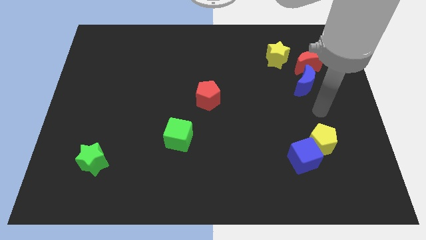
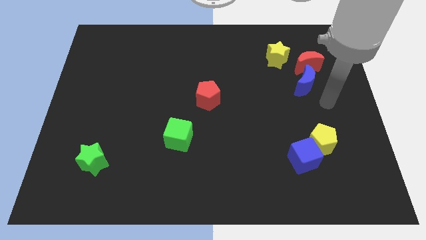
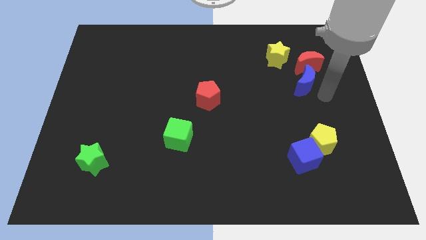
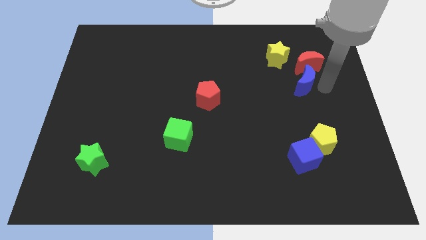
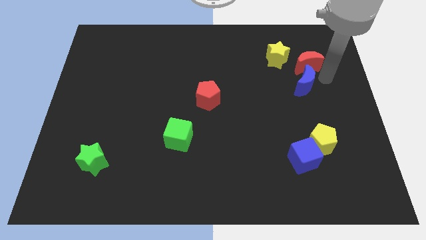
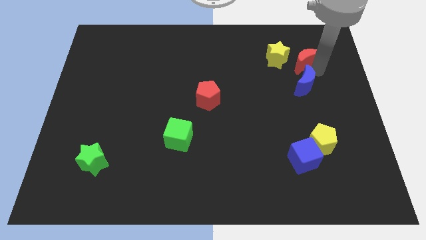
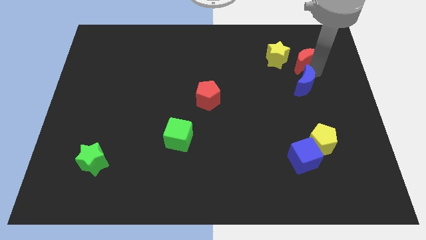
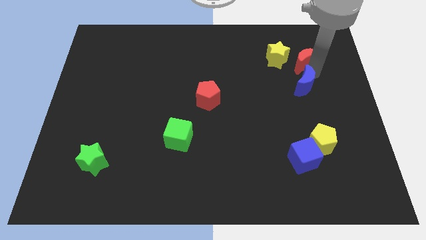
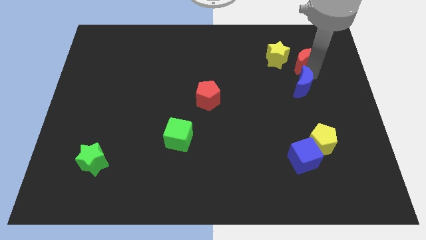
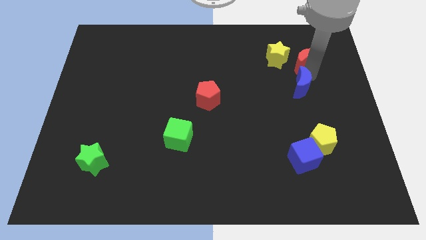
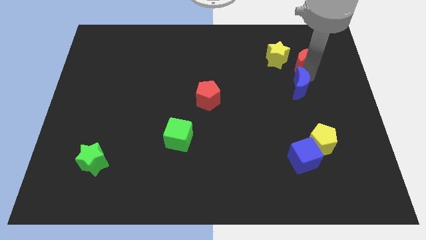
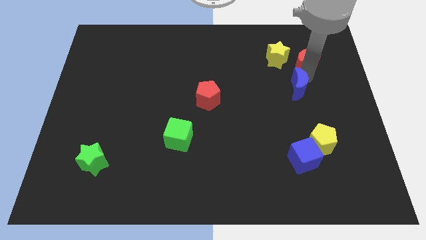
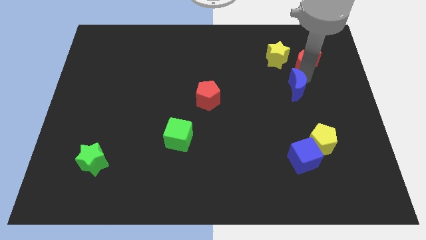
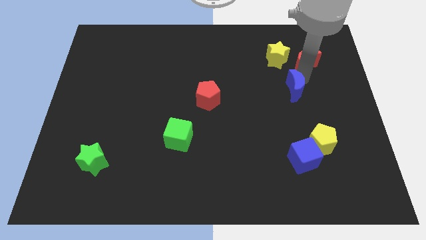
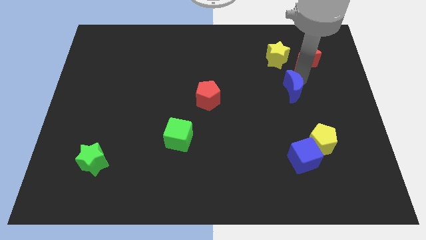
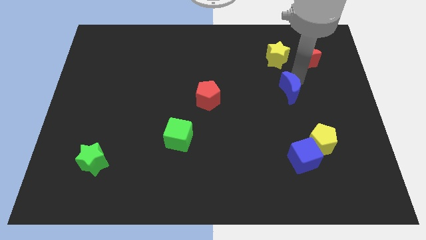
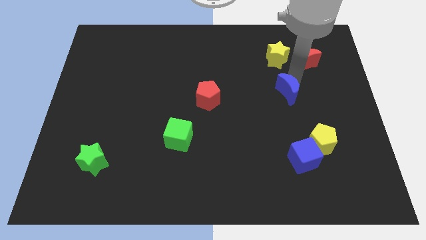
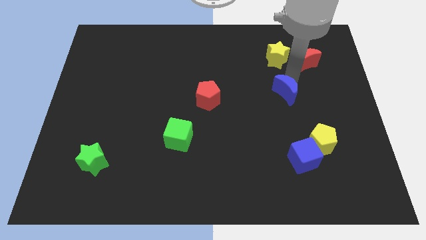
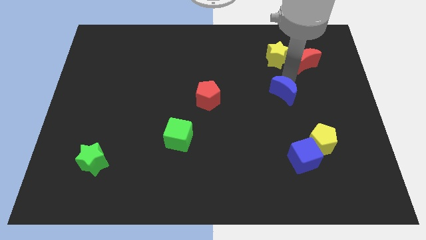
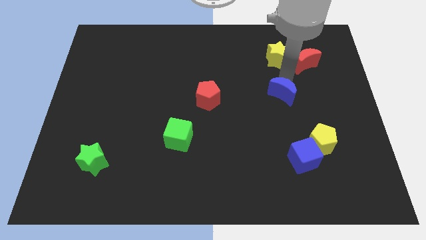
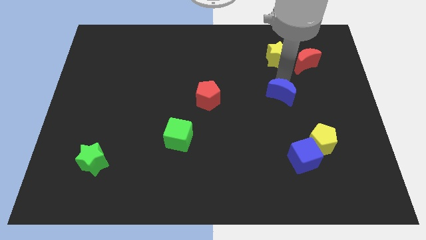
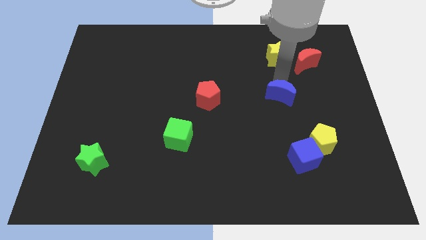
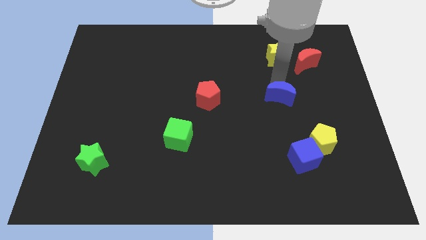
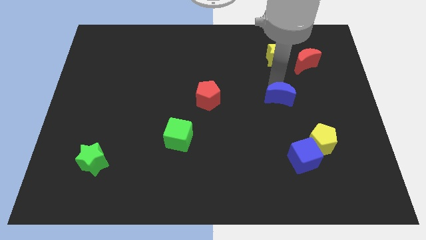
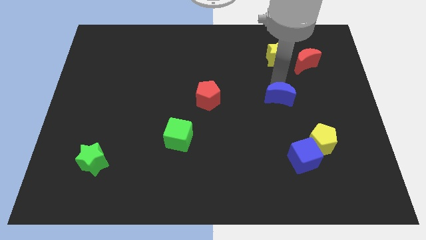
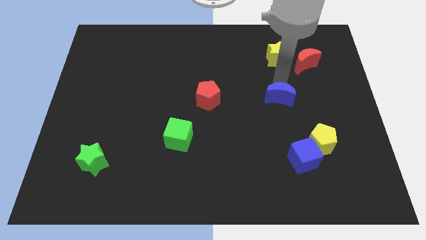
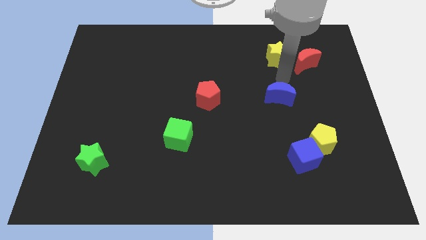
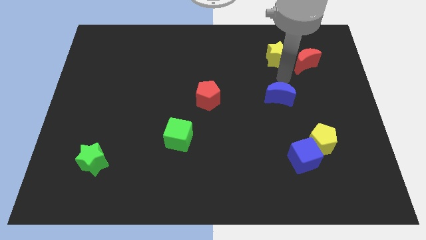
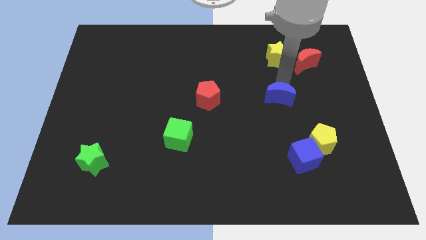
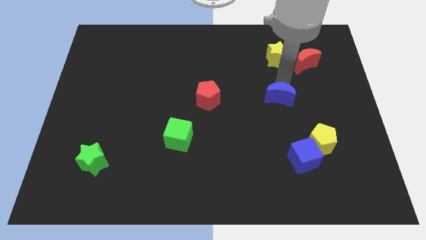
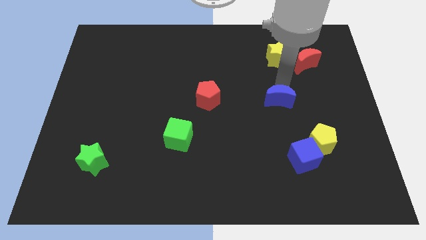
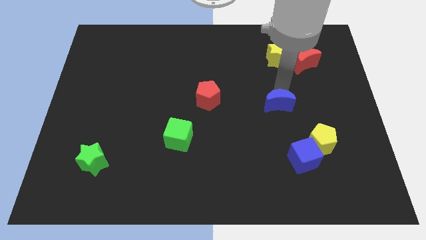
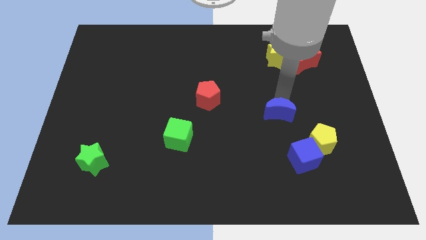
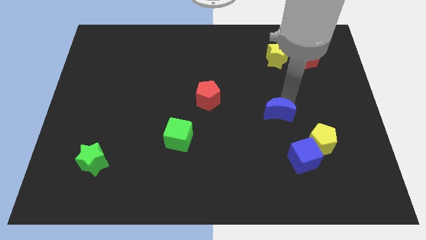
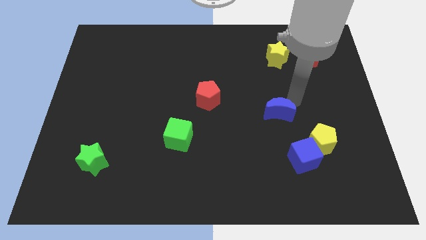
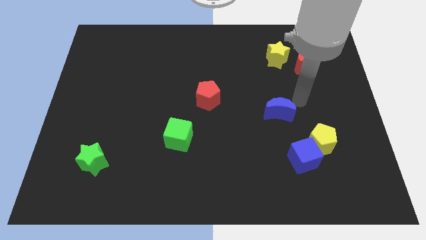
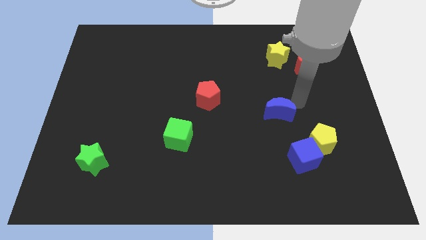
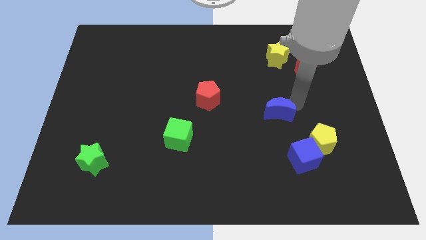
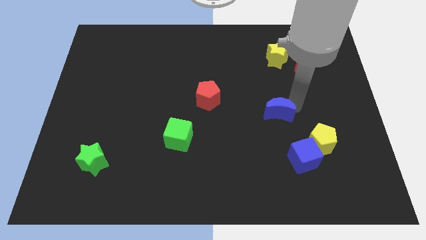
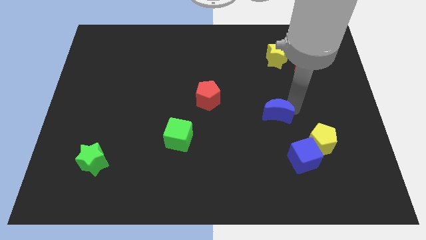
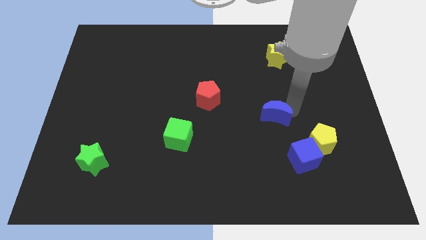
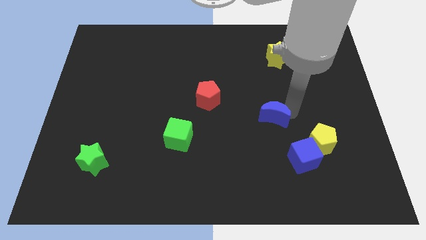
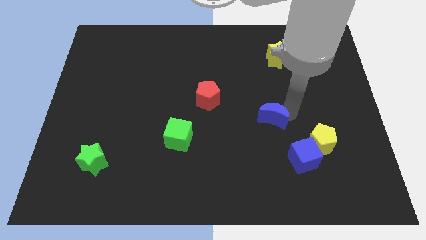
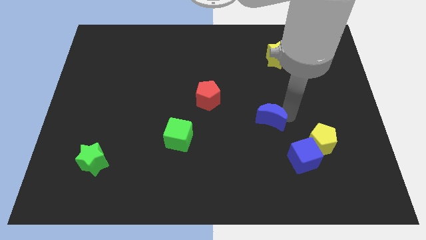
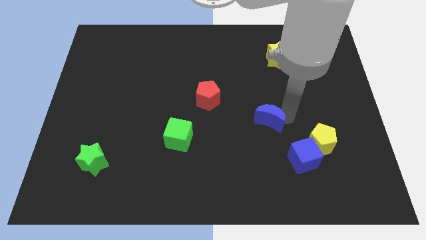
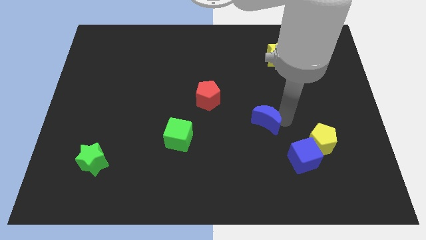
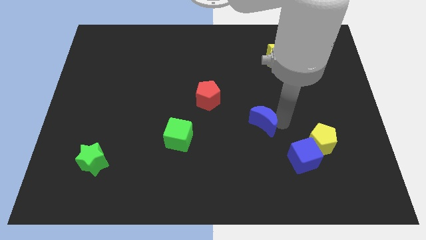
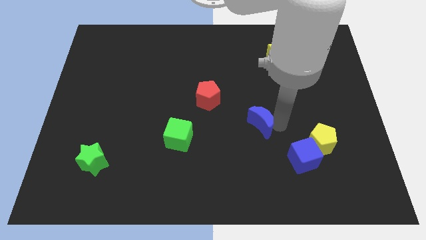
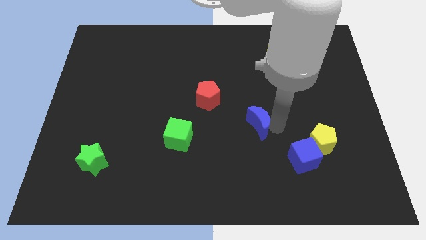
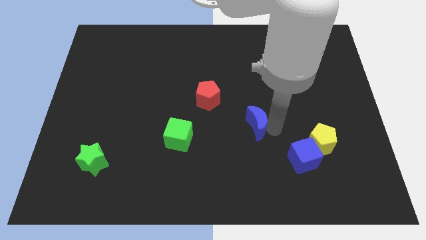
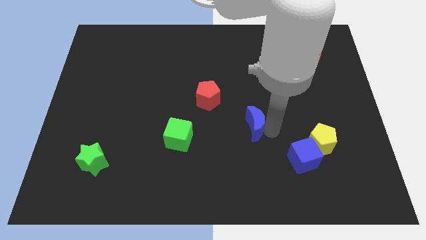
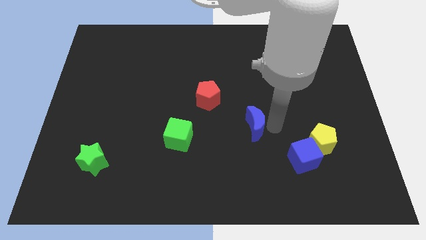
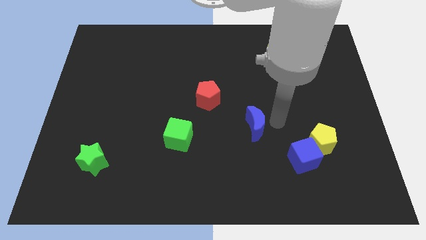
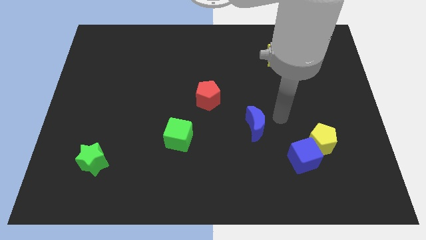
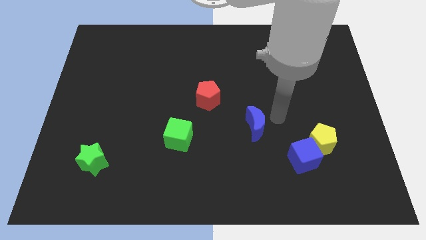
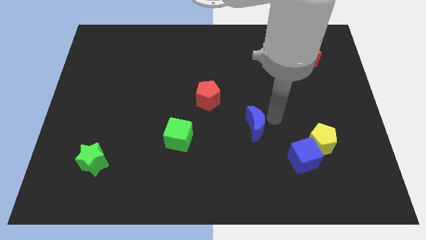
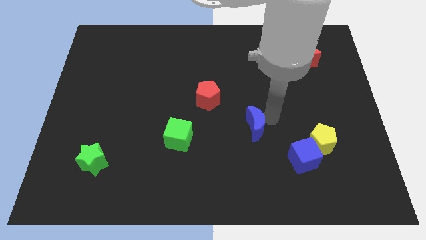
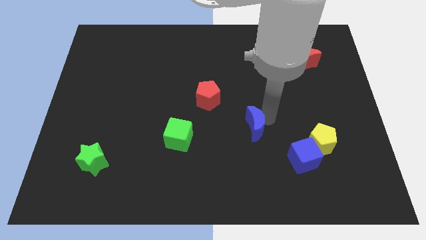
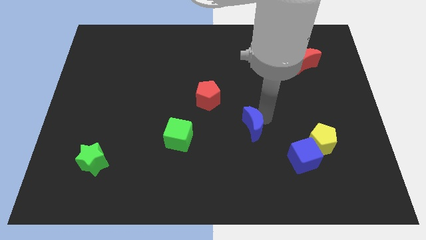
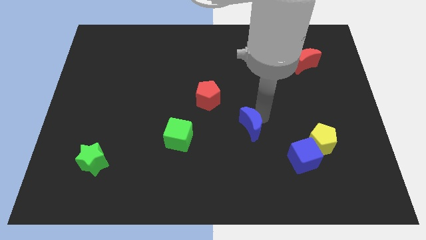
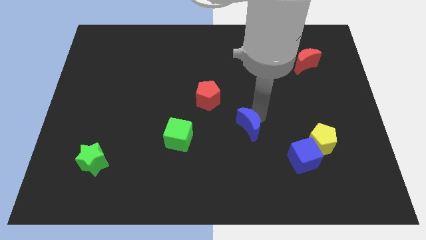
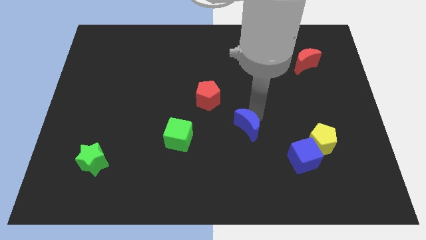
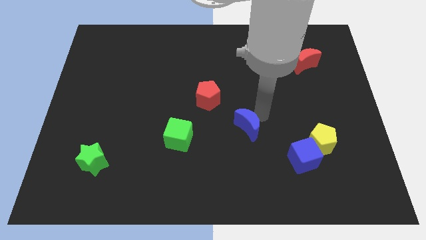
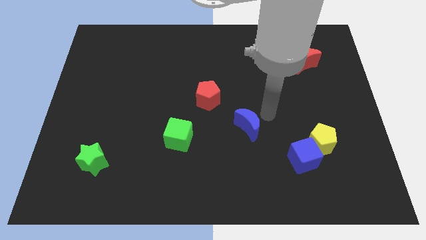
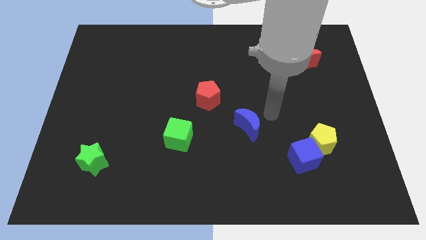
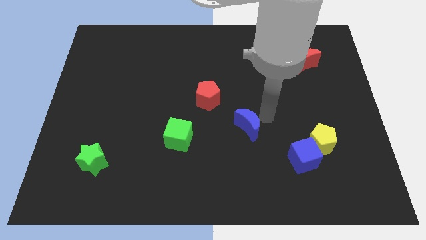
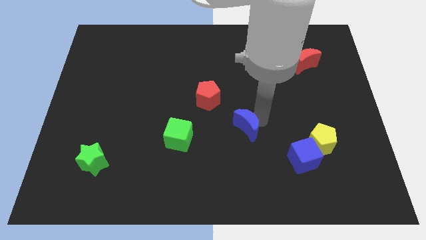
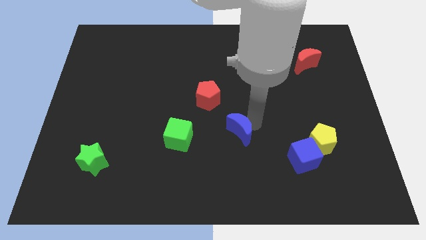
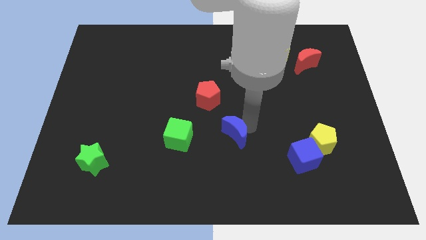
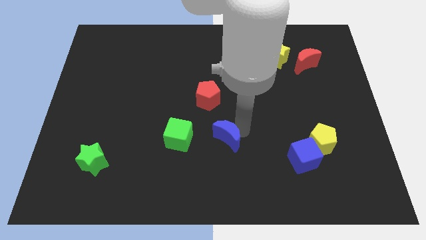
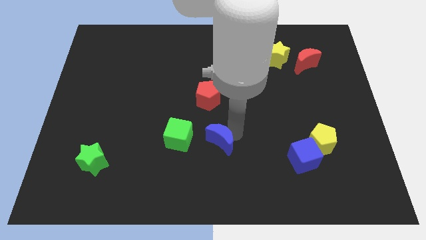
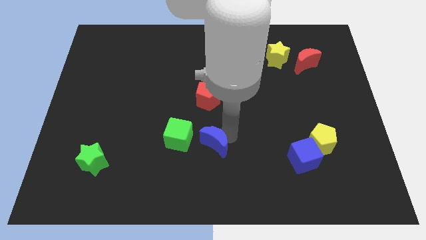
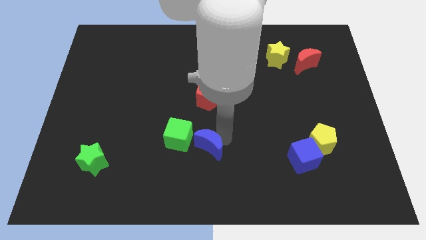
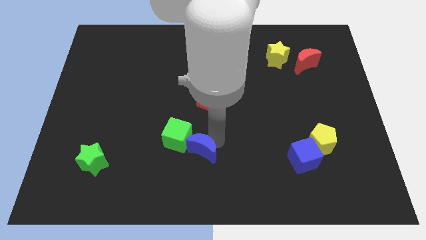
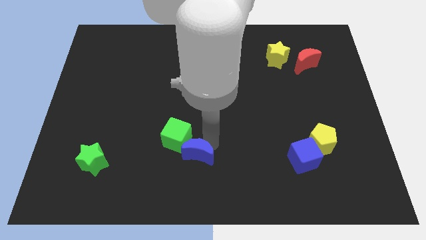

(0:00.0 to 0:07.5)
push the blue moon to the bottom side of the green cube

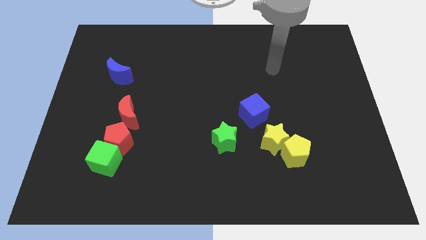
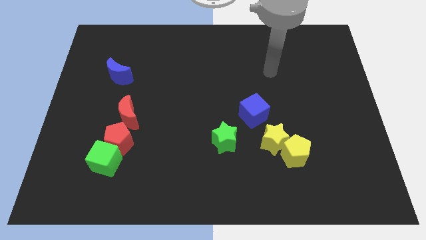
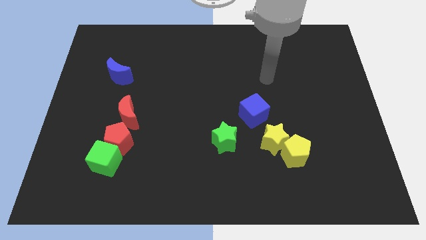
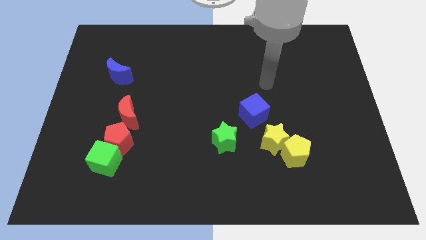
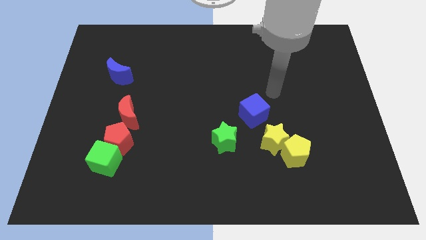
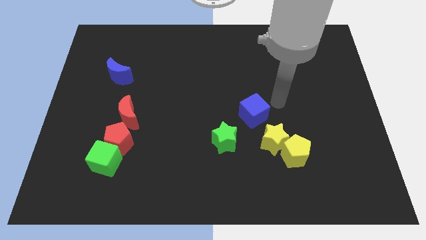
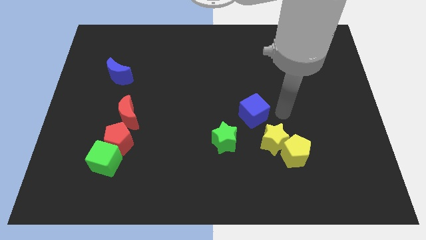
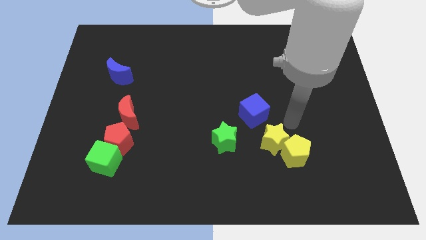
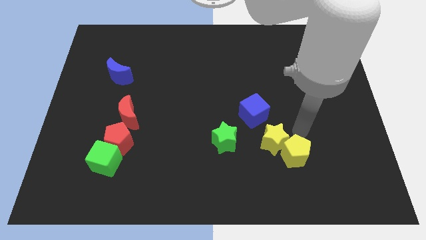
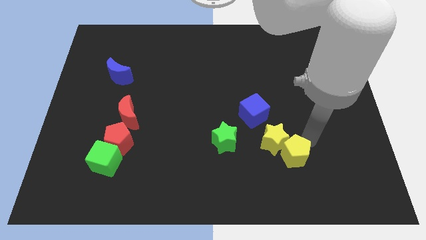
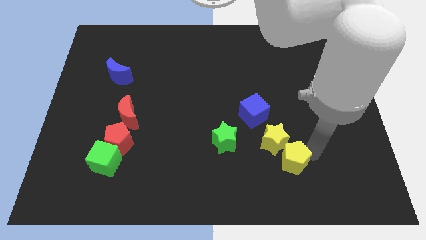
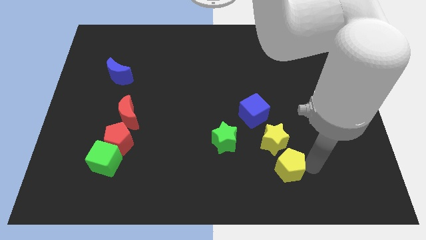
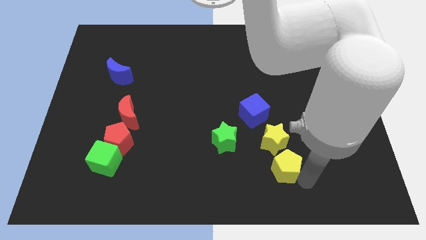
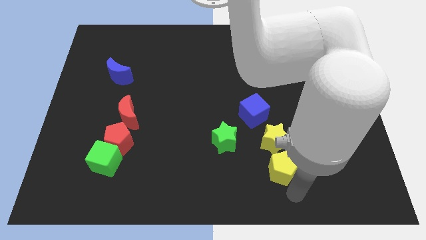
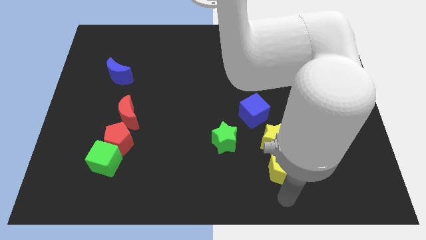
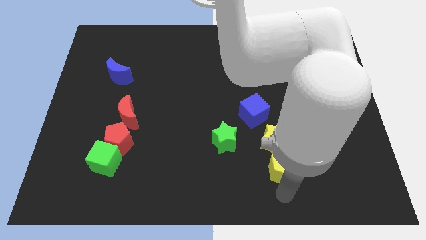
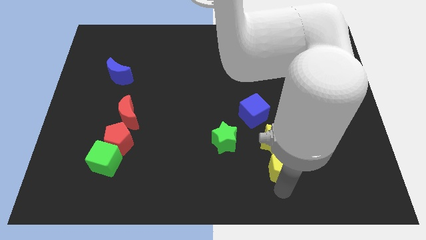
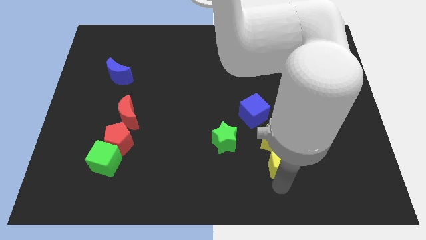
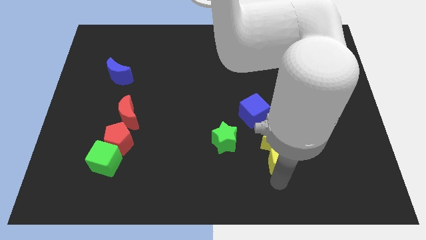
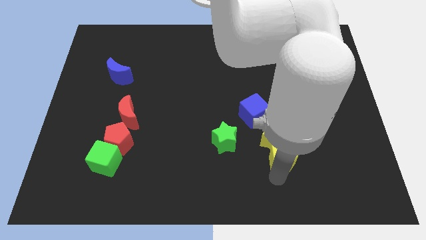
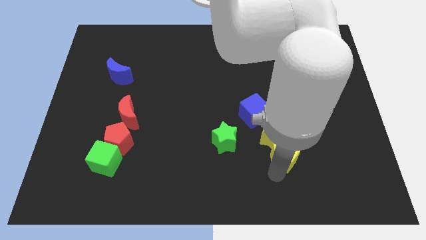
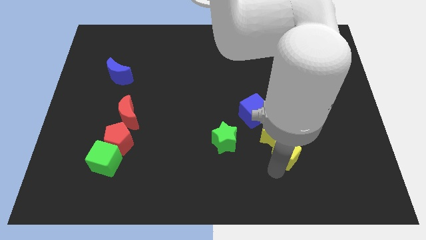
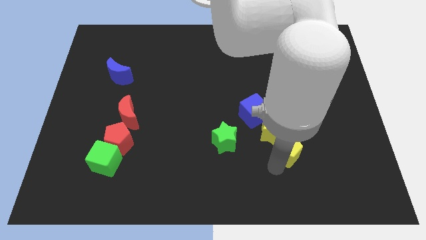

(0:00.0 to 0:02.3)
slide the yellow pentagon to the bottom right of the blue cube
